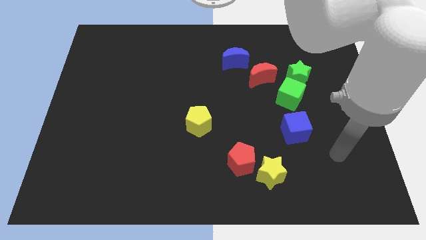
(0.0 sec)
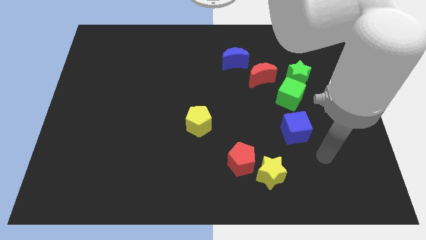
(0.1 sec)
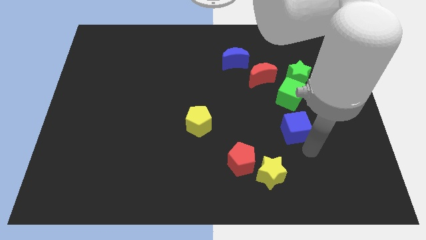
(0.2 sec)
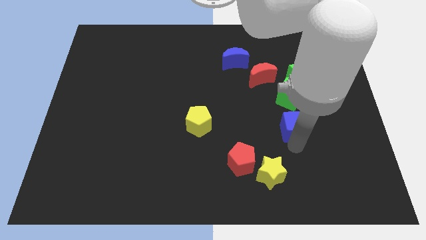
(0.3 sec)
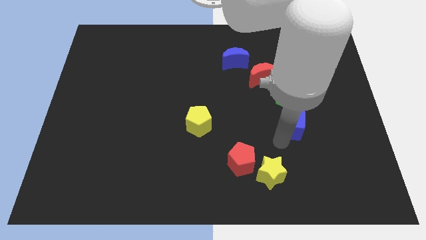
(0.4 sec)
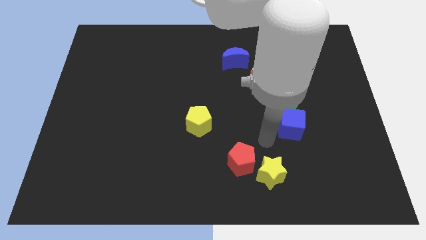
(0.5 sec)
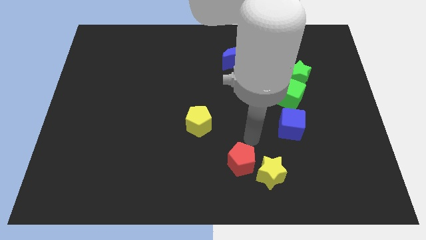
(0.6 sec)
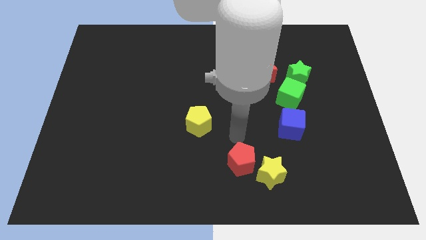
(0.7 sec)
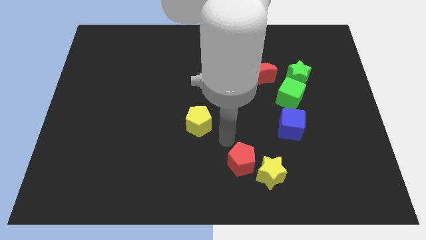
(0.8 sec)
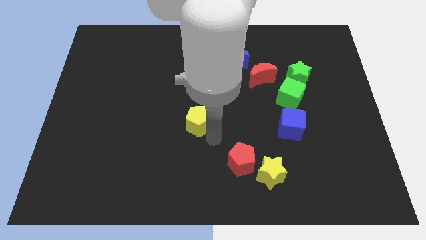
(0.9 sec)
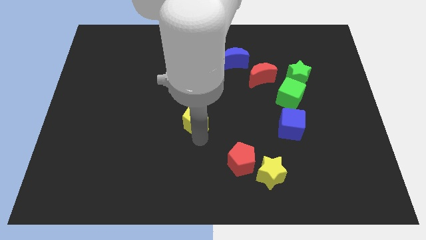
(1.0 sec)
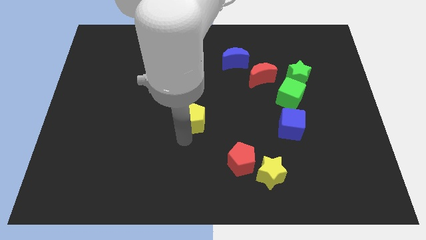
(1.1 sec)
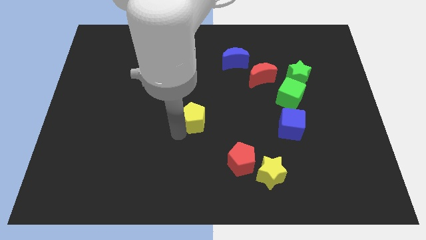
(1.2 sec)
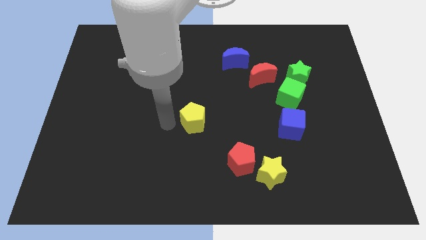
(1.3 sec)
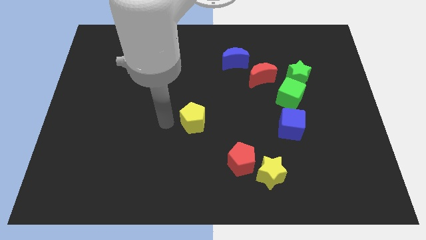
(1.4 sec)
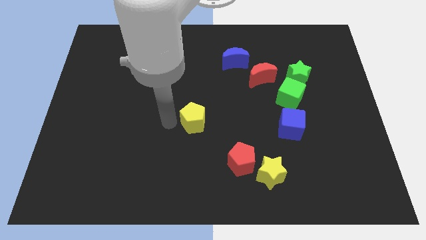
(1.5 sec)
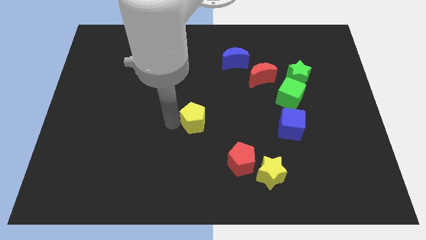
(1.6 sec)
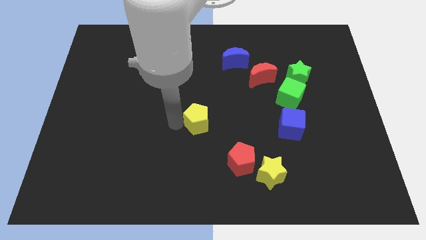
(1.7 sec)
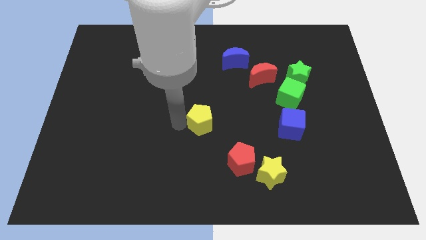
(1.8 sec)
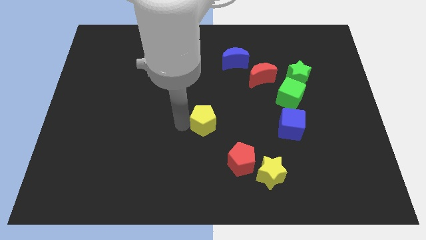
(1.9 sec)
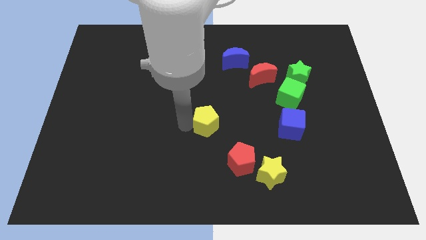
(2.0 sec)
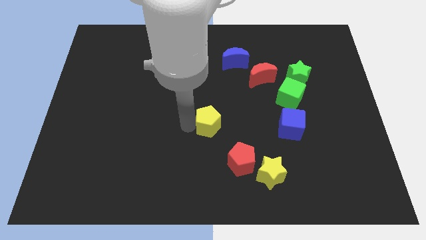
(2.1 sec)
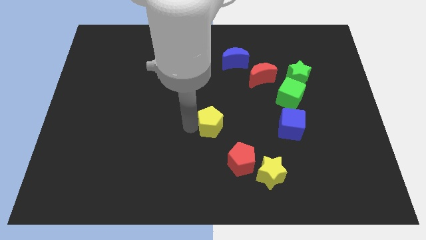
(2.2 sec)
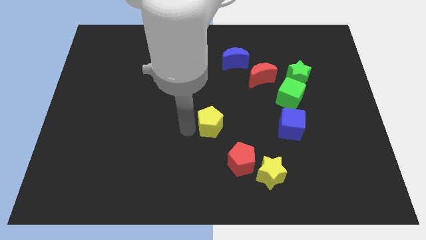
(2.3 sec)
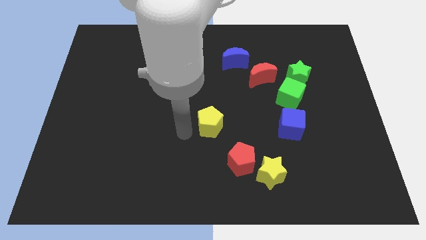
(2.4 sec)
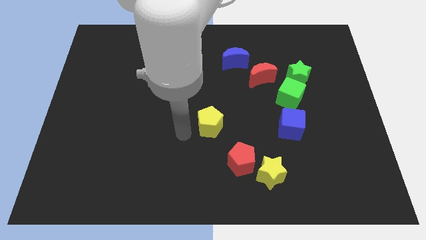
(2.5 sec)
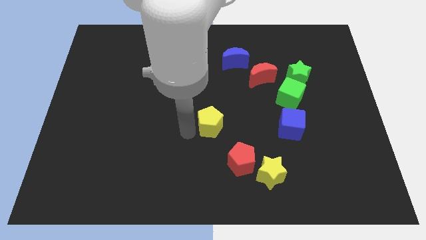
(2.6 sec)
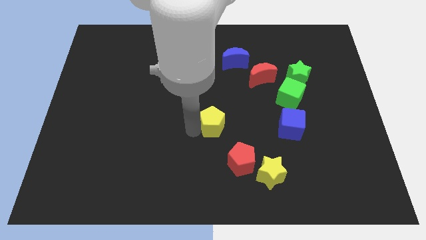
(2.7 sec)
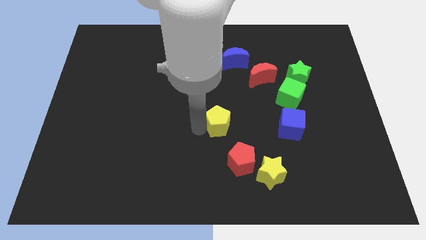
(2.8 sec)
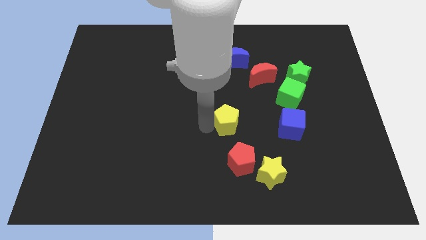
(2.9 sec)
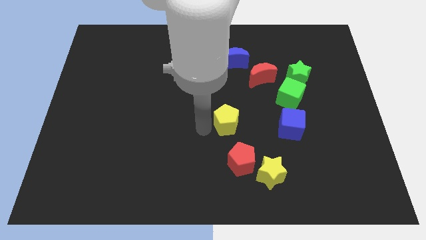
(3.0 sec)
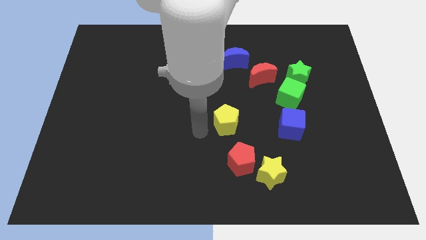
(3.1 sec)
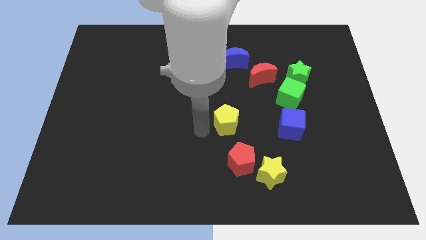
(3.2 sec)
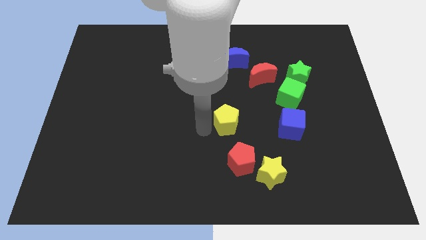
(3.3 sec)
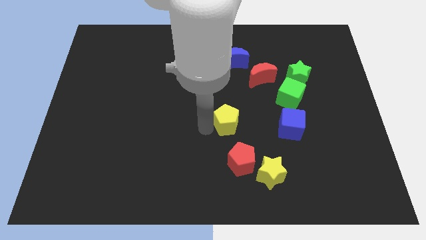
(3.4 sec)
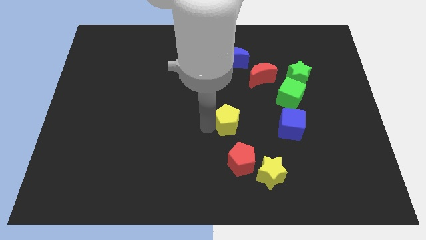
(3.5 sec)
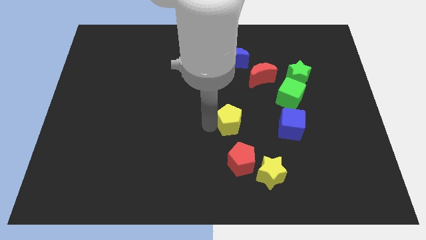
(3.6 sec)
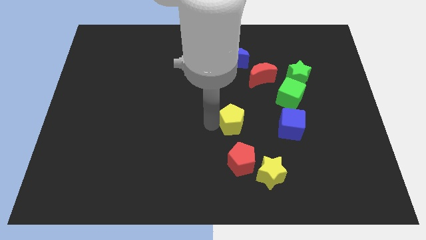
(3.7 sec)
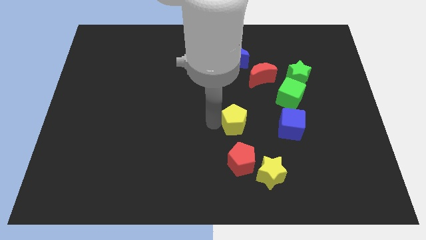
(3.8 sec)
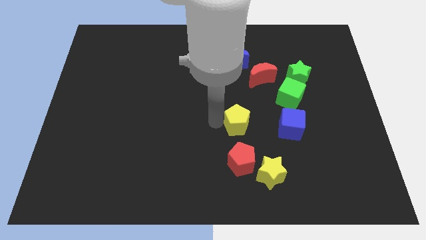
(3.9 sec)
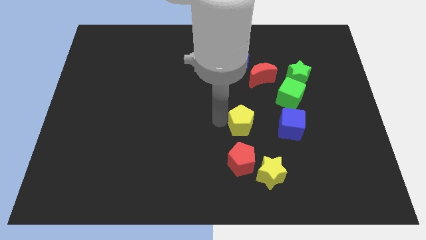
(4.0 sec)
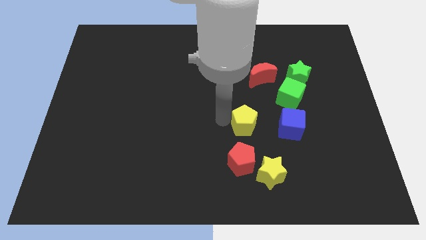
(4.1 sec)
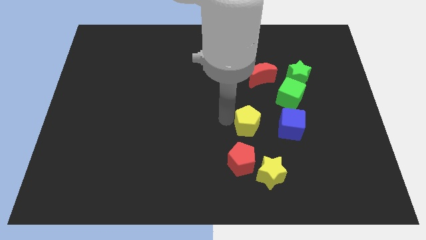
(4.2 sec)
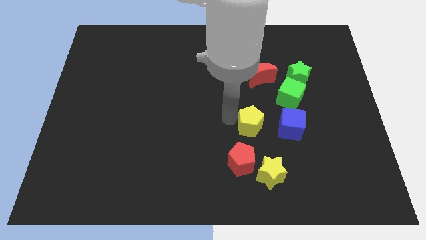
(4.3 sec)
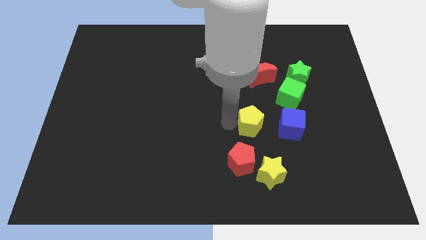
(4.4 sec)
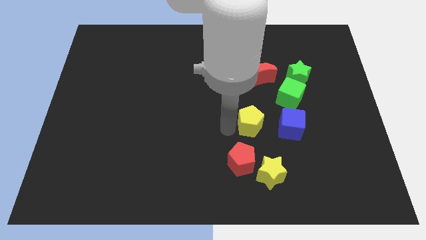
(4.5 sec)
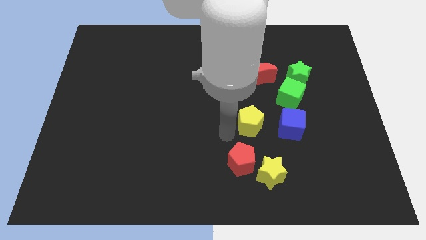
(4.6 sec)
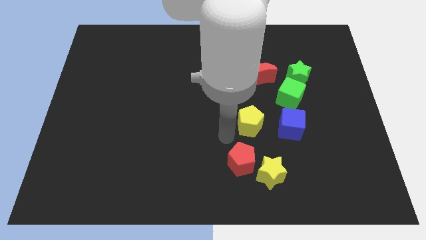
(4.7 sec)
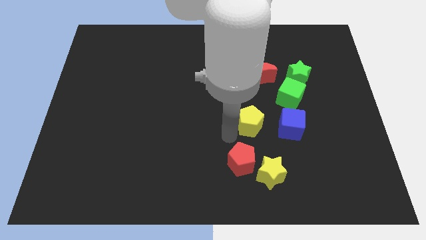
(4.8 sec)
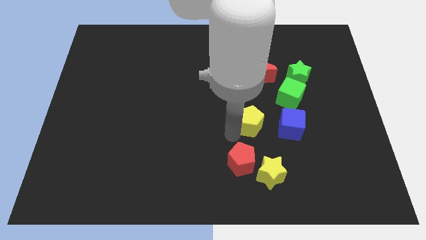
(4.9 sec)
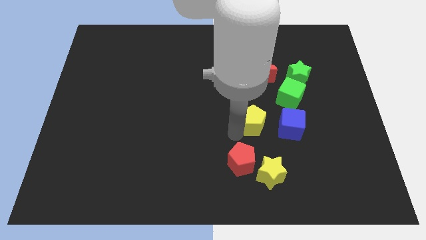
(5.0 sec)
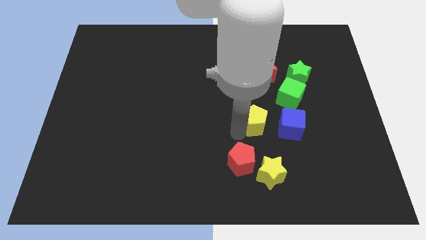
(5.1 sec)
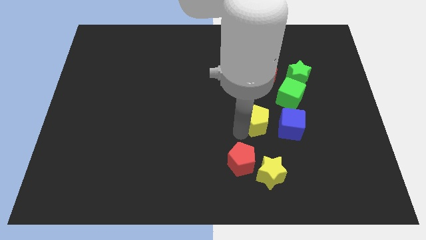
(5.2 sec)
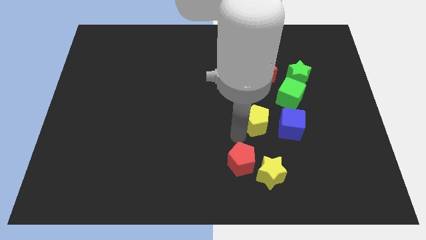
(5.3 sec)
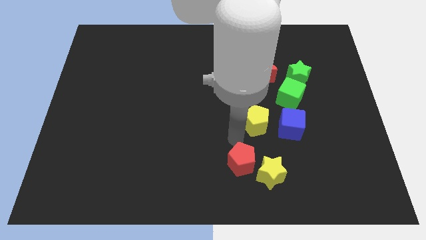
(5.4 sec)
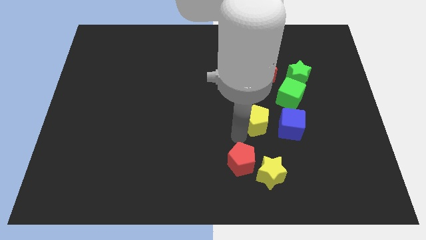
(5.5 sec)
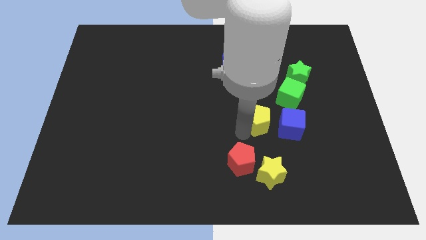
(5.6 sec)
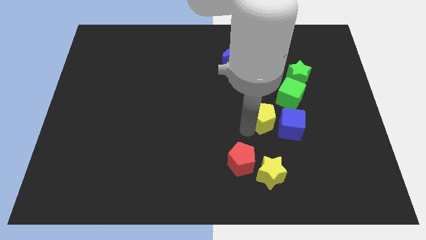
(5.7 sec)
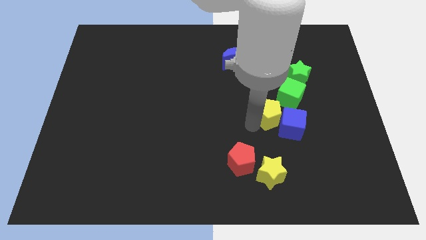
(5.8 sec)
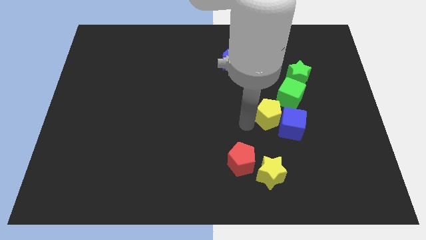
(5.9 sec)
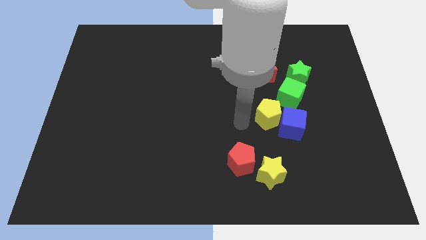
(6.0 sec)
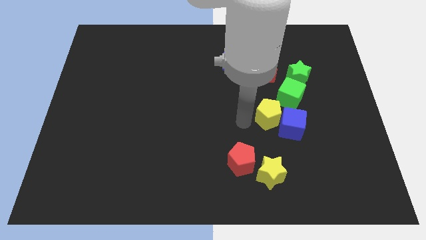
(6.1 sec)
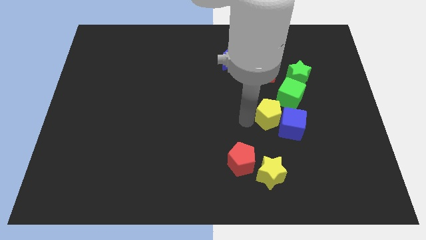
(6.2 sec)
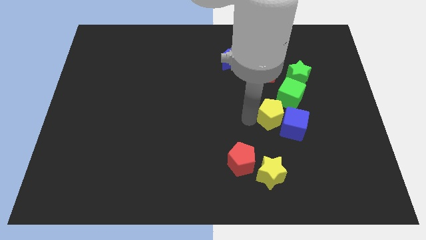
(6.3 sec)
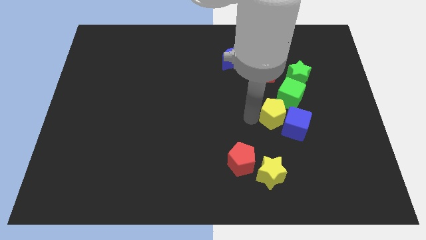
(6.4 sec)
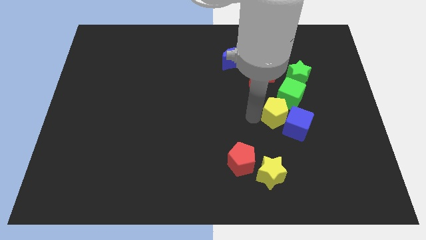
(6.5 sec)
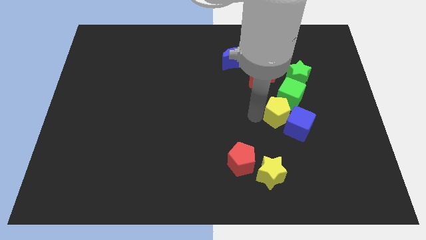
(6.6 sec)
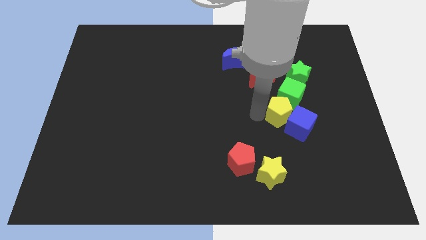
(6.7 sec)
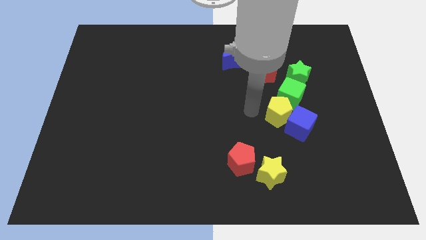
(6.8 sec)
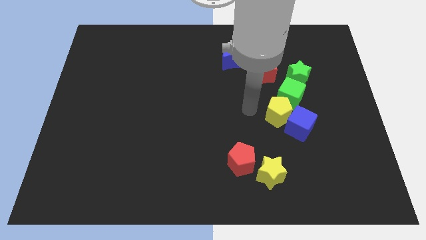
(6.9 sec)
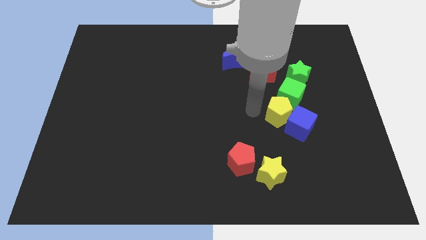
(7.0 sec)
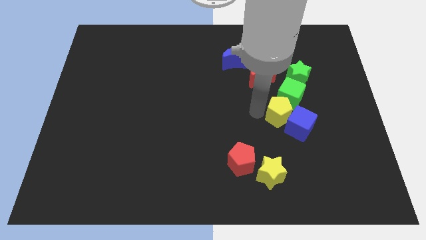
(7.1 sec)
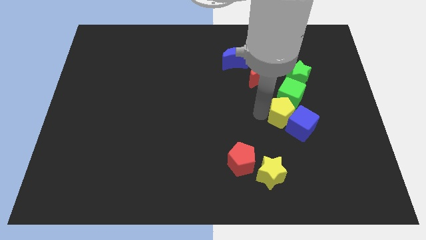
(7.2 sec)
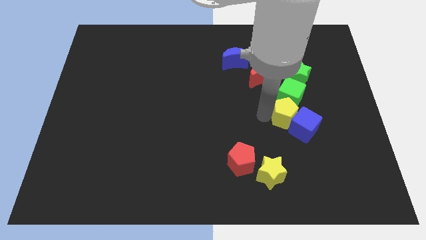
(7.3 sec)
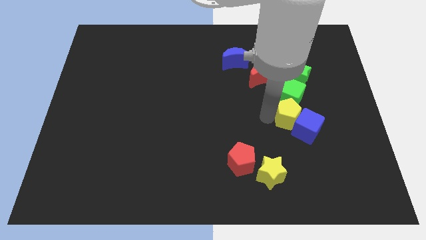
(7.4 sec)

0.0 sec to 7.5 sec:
move the yellow pentagon to the right

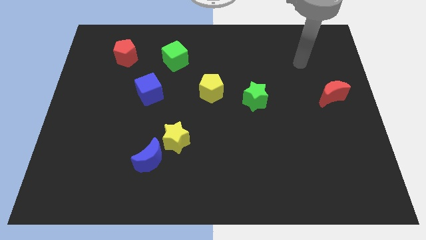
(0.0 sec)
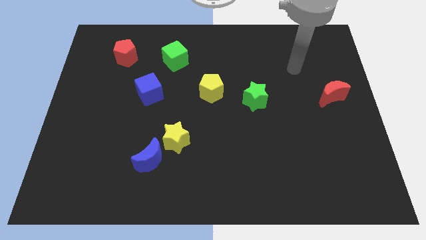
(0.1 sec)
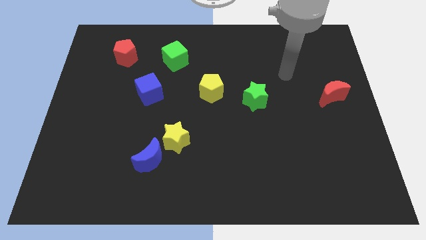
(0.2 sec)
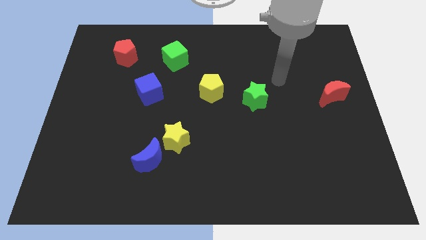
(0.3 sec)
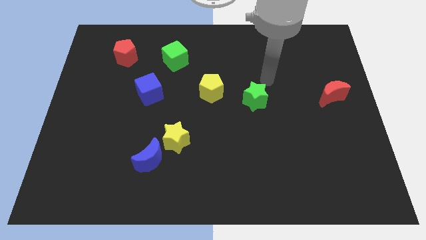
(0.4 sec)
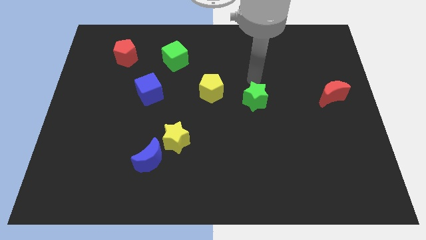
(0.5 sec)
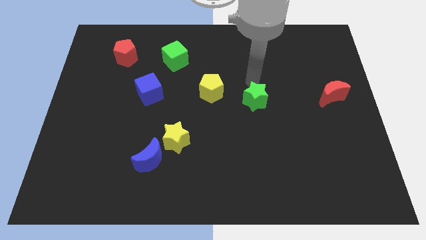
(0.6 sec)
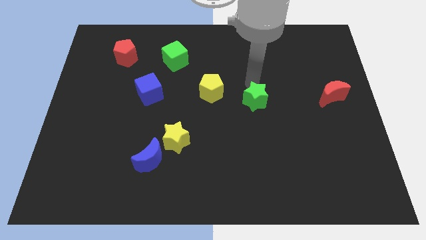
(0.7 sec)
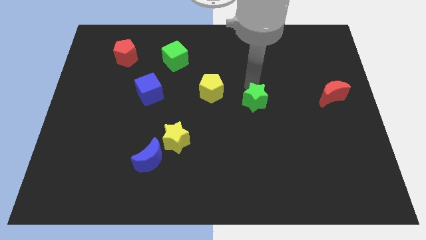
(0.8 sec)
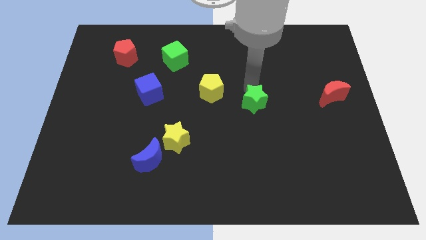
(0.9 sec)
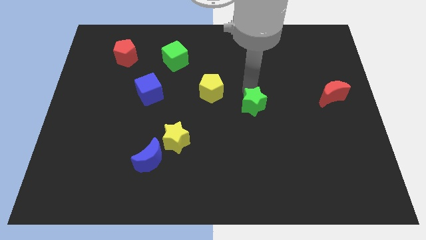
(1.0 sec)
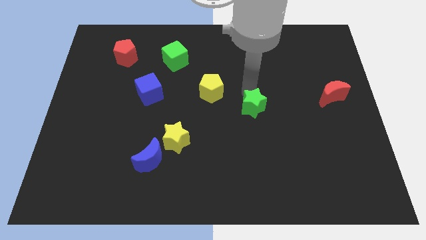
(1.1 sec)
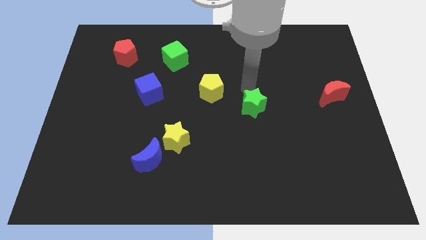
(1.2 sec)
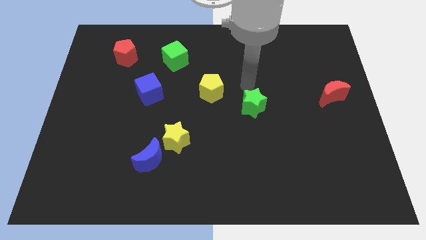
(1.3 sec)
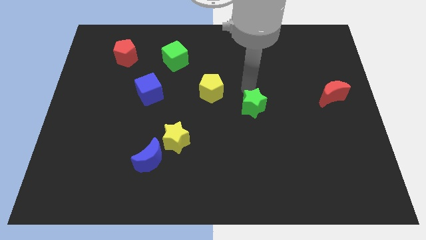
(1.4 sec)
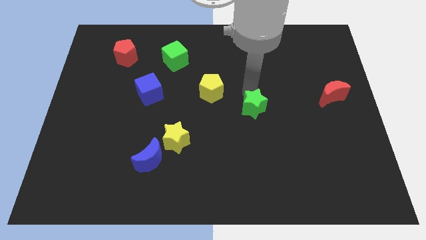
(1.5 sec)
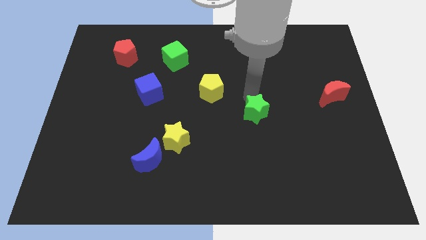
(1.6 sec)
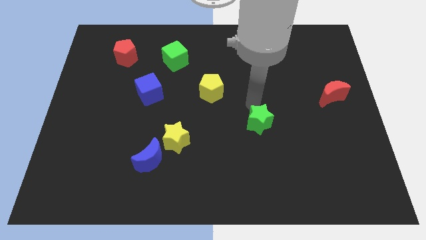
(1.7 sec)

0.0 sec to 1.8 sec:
slightly move the green star down
